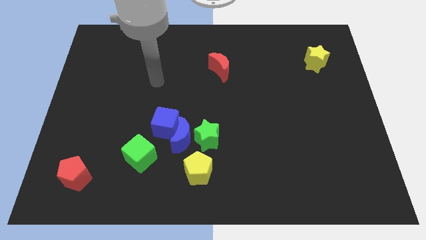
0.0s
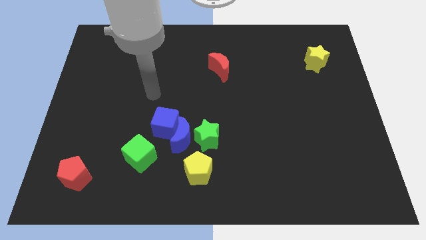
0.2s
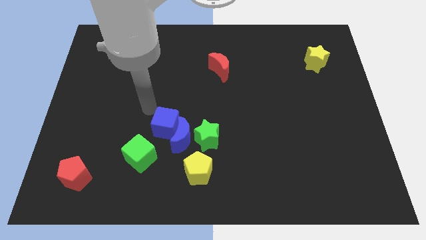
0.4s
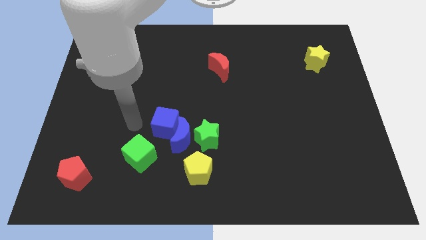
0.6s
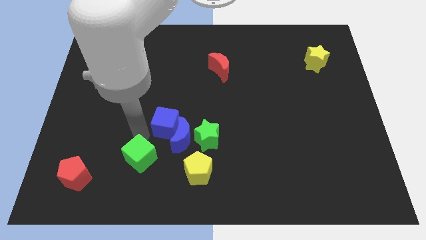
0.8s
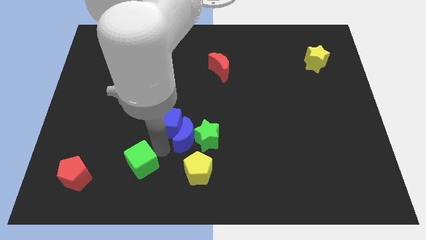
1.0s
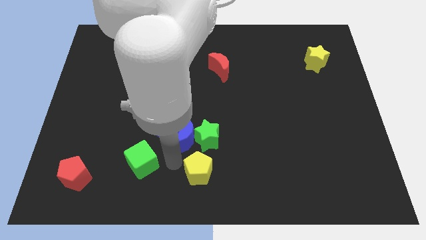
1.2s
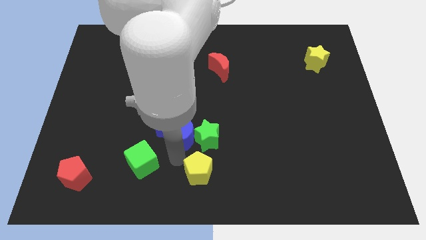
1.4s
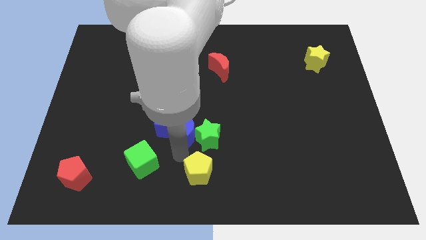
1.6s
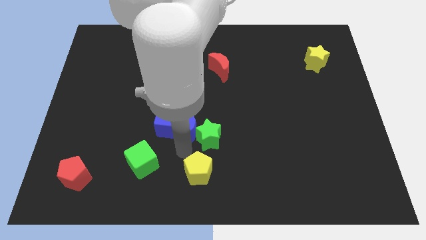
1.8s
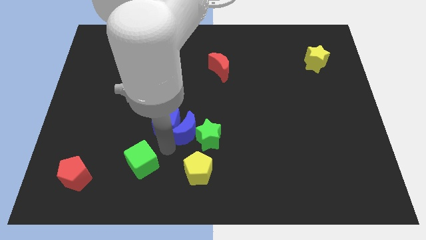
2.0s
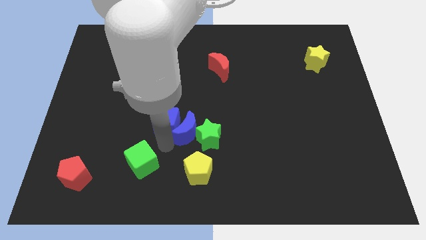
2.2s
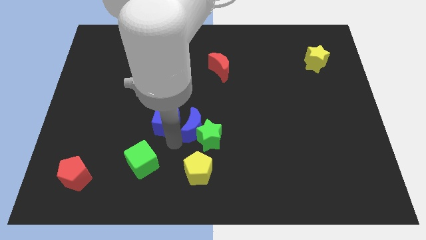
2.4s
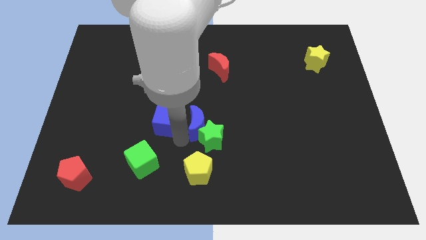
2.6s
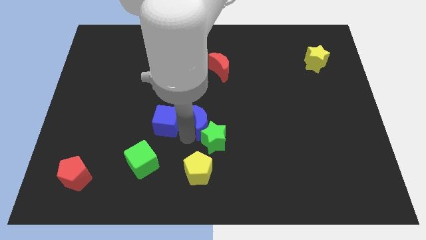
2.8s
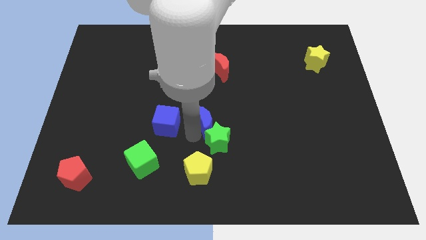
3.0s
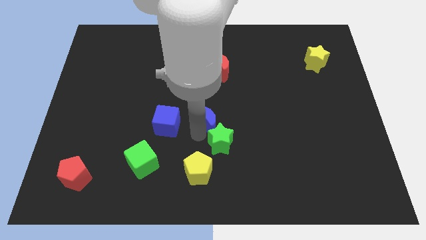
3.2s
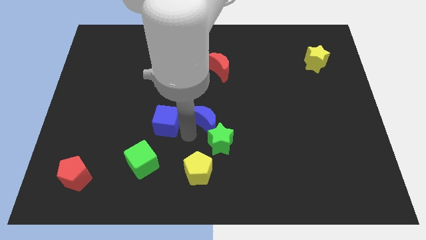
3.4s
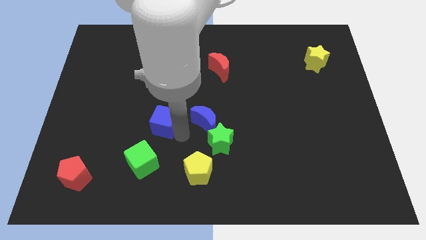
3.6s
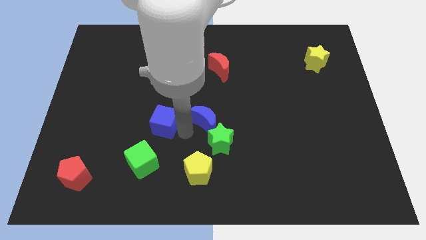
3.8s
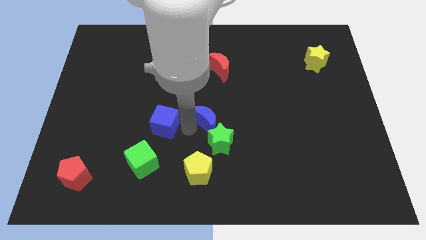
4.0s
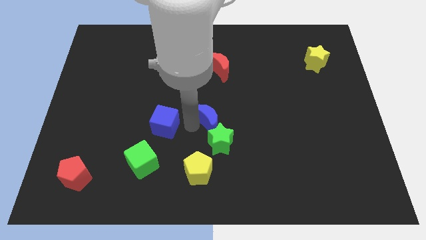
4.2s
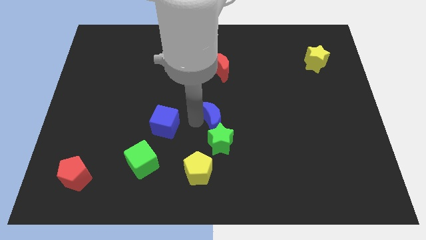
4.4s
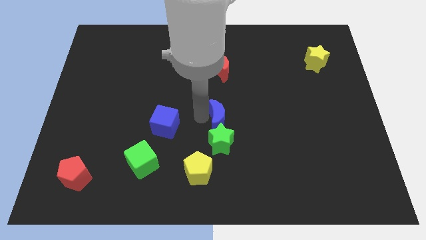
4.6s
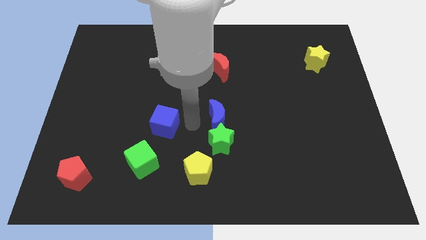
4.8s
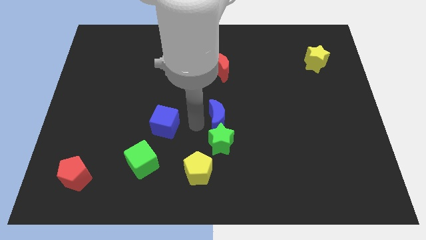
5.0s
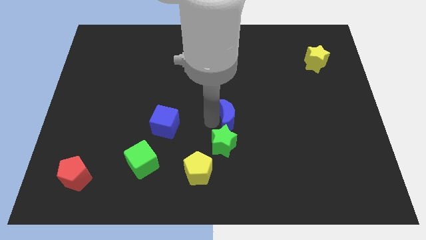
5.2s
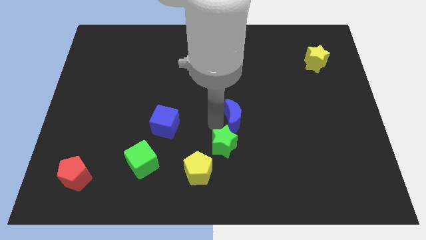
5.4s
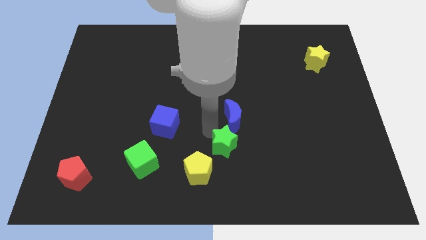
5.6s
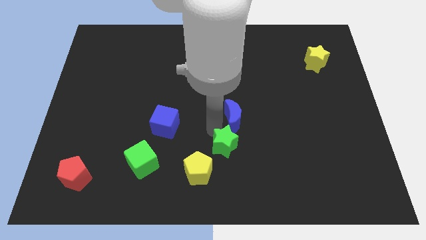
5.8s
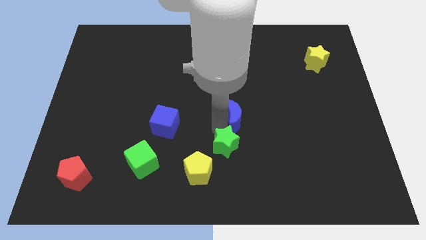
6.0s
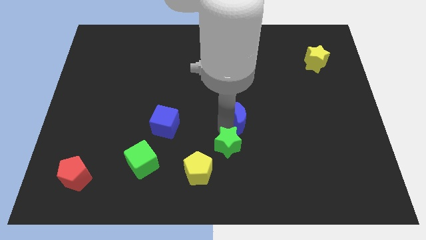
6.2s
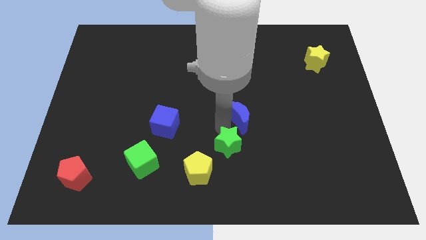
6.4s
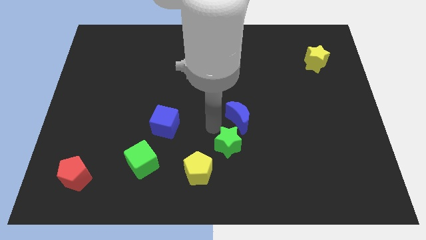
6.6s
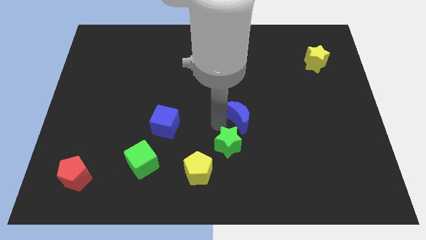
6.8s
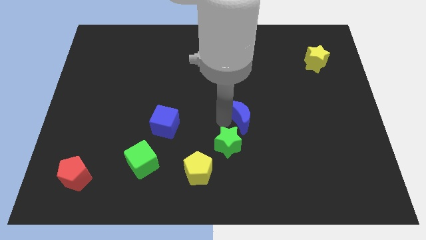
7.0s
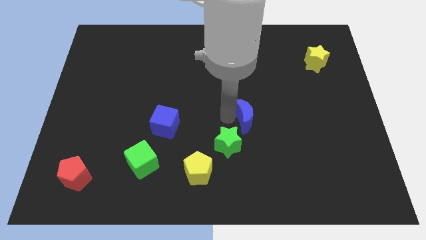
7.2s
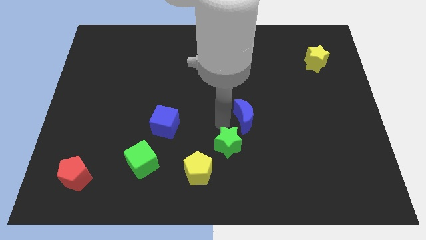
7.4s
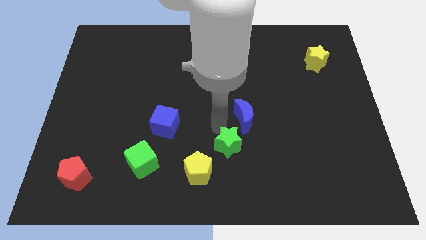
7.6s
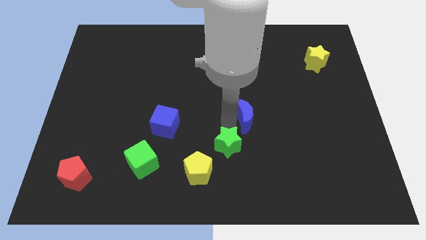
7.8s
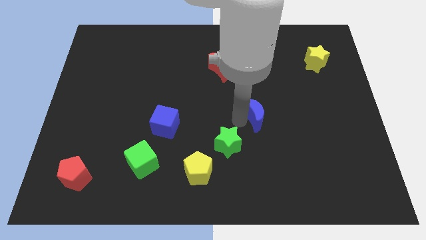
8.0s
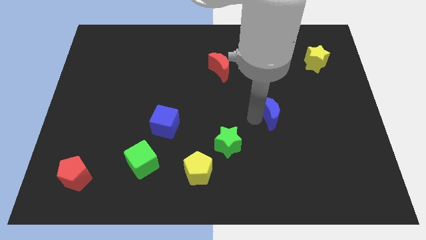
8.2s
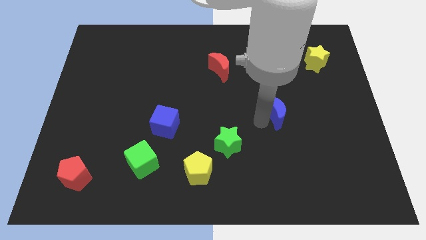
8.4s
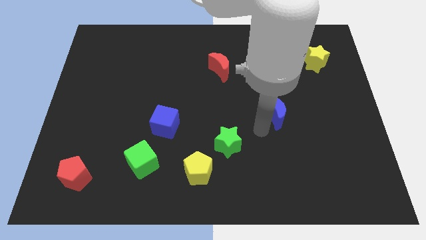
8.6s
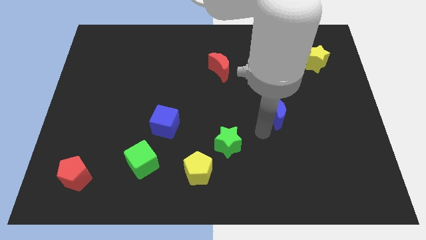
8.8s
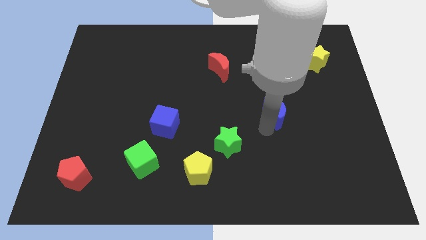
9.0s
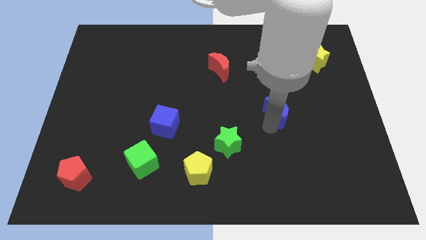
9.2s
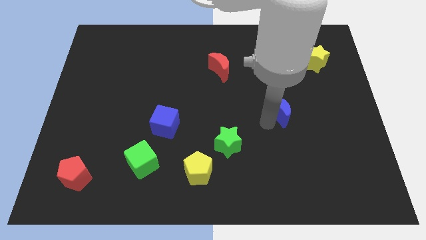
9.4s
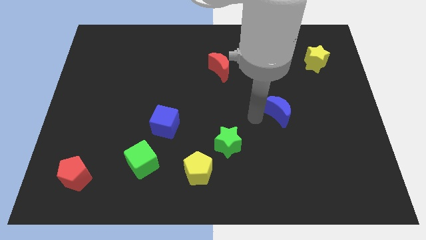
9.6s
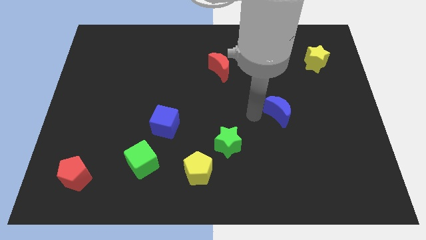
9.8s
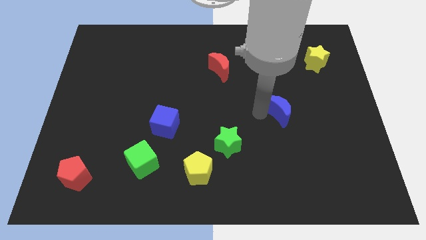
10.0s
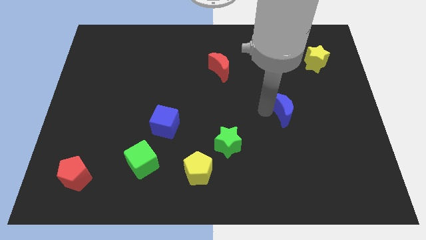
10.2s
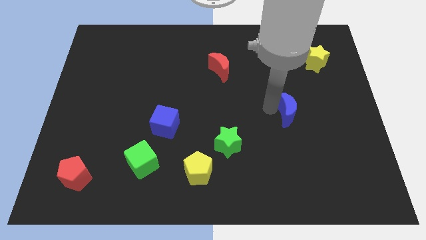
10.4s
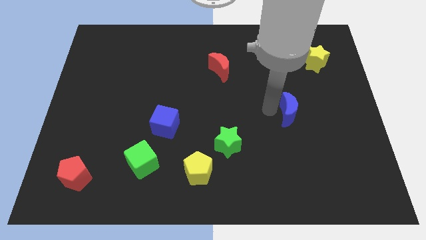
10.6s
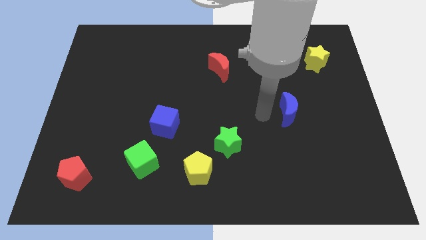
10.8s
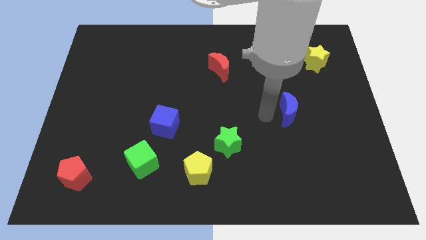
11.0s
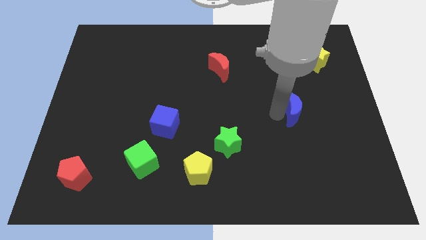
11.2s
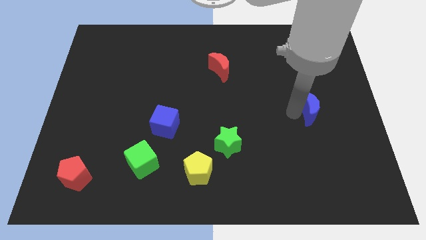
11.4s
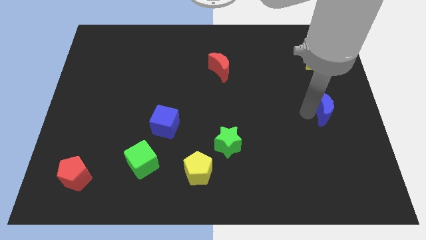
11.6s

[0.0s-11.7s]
put the blue moon to the center right

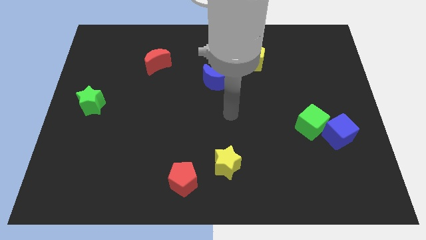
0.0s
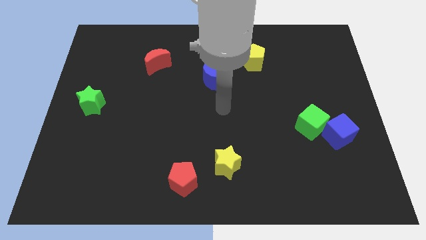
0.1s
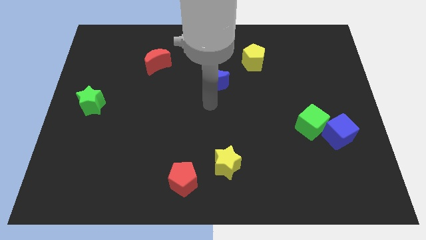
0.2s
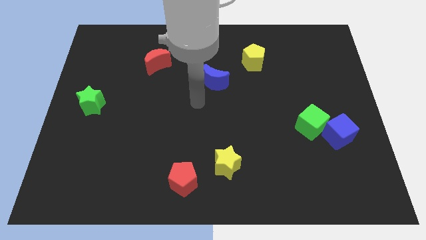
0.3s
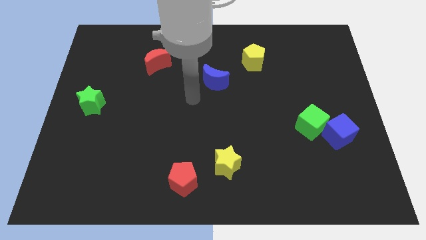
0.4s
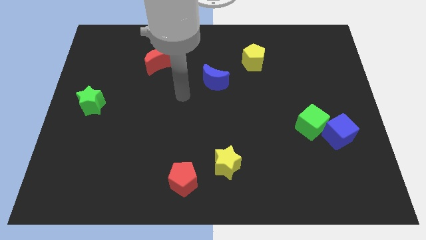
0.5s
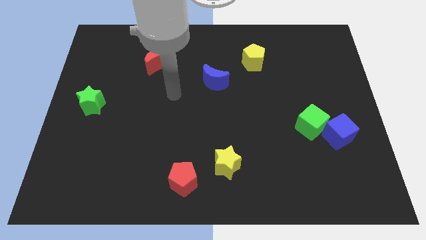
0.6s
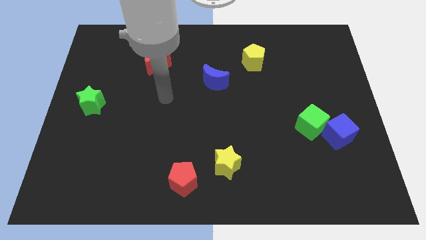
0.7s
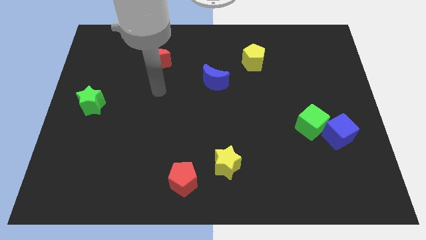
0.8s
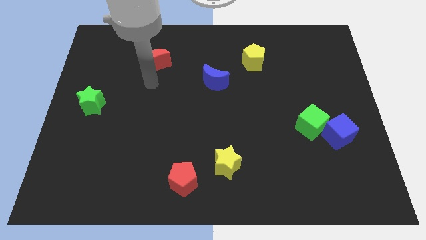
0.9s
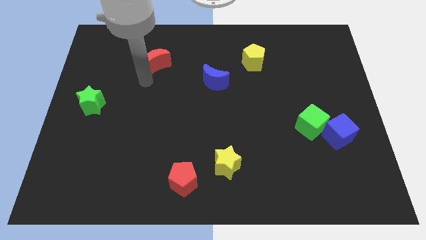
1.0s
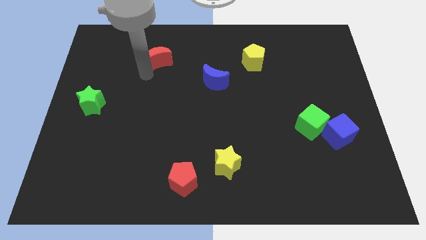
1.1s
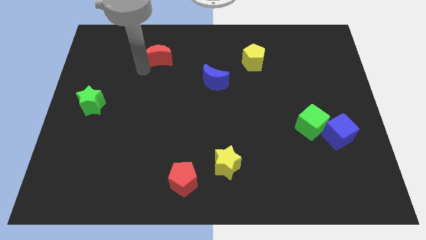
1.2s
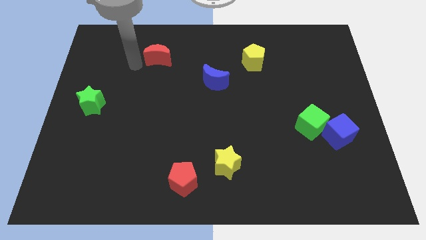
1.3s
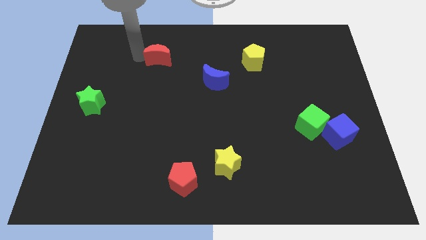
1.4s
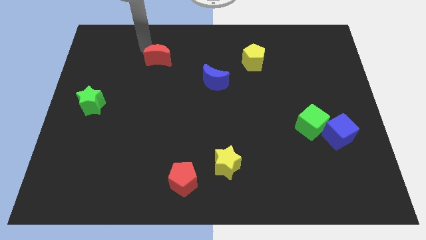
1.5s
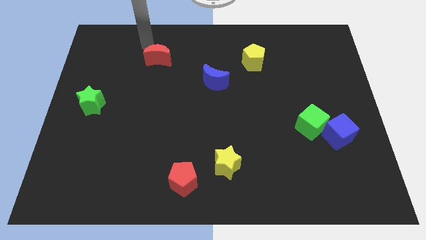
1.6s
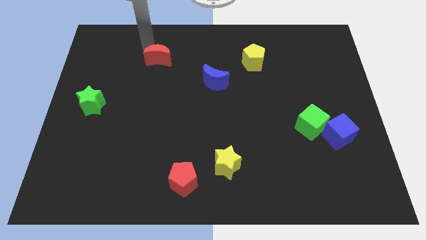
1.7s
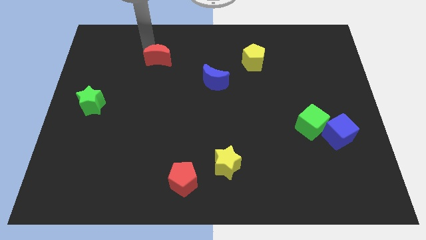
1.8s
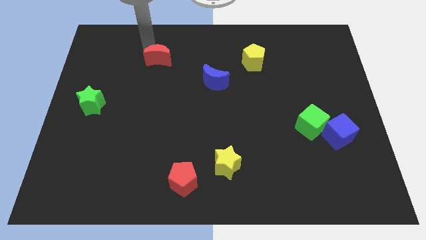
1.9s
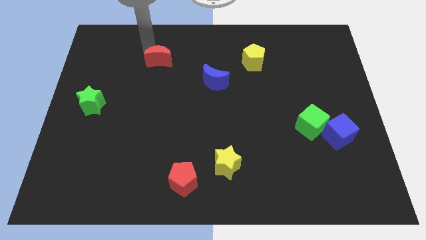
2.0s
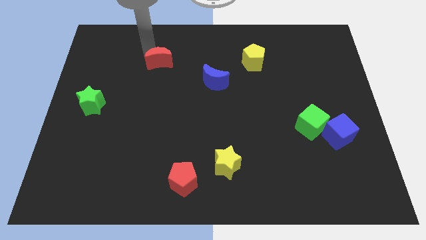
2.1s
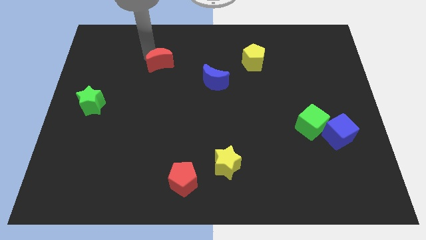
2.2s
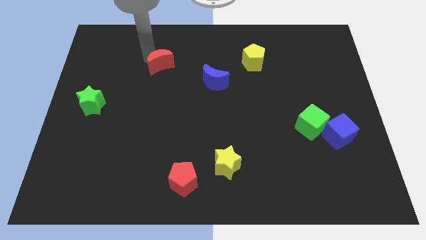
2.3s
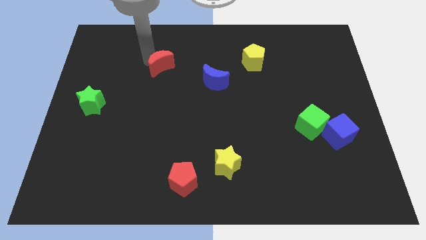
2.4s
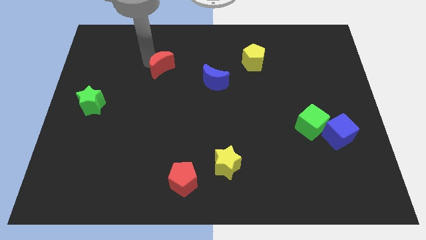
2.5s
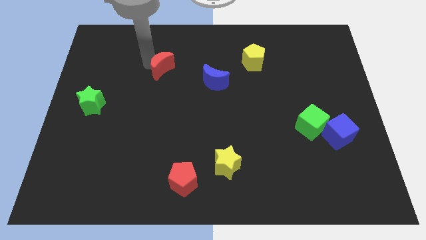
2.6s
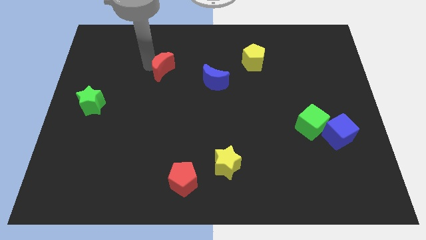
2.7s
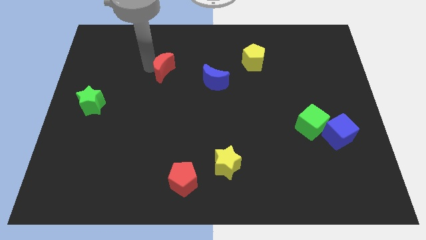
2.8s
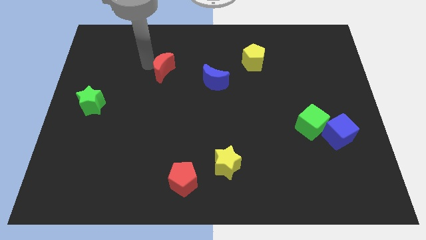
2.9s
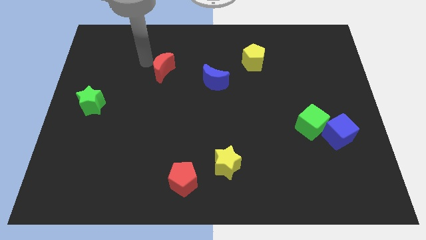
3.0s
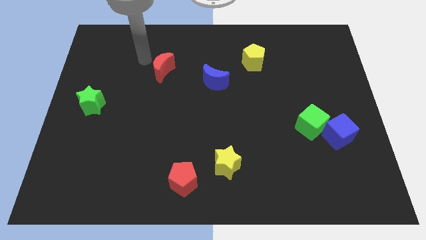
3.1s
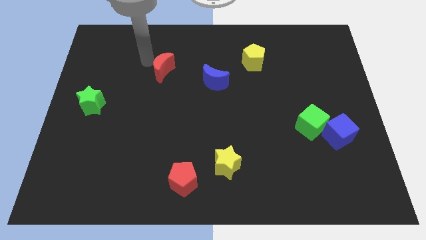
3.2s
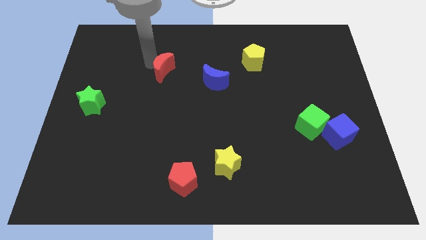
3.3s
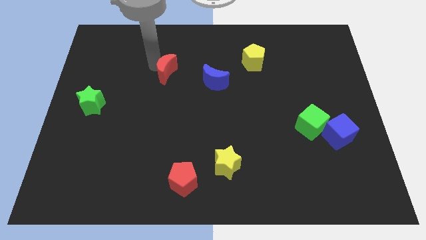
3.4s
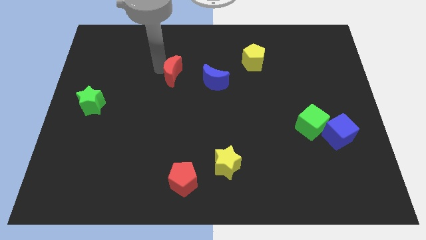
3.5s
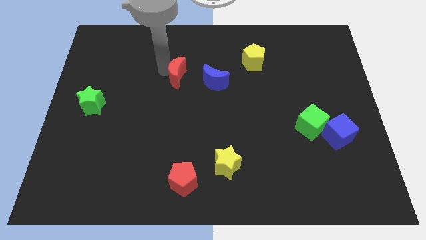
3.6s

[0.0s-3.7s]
move the red moon to the middle
